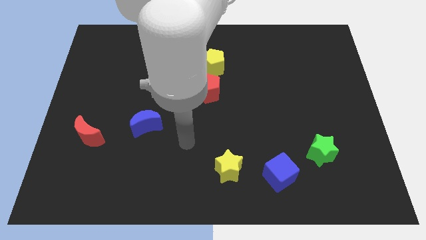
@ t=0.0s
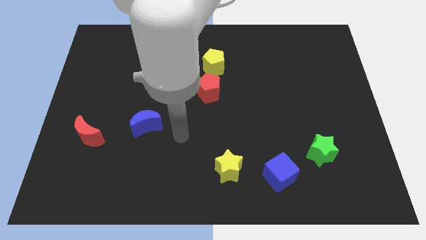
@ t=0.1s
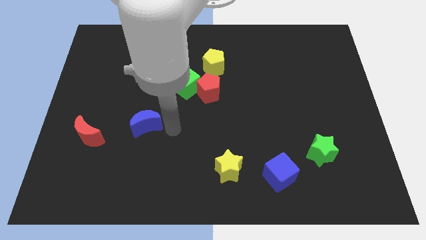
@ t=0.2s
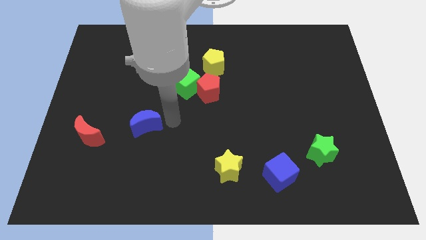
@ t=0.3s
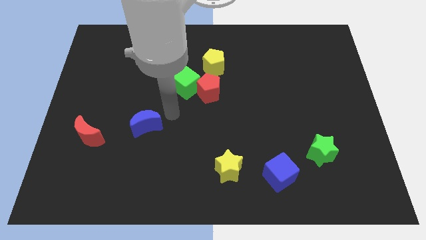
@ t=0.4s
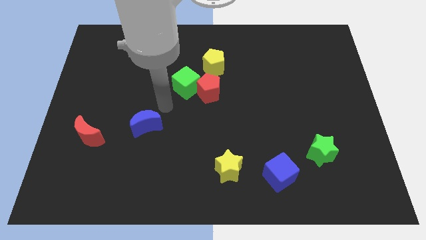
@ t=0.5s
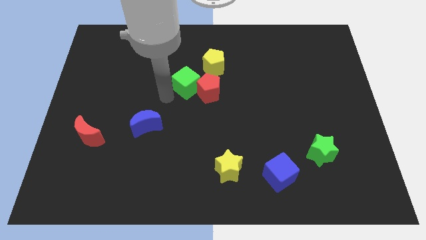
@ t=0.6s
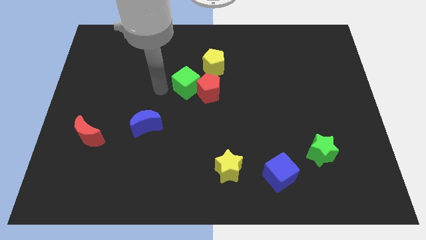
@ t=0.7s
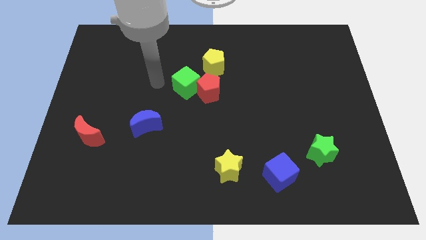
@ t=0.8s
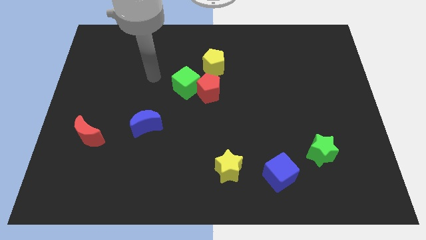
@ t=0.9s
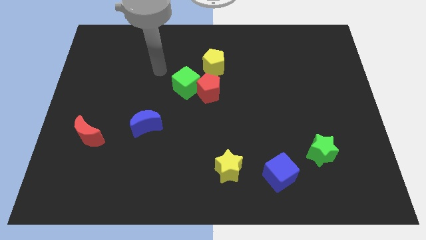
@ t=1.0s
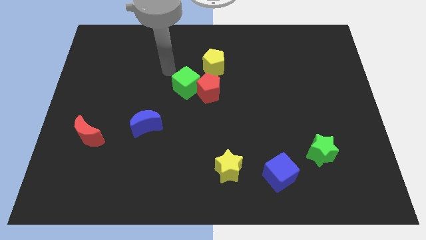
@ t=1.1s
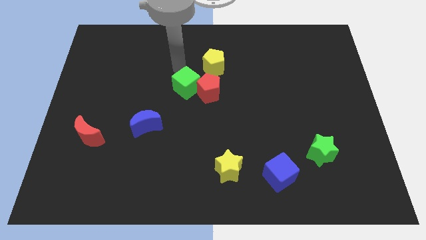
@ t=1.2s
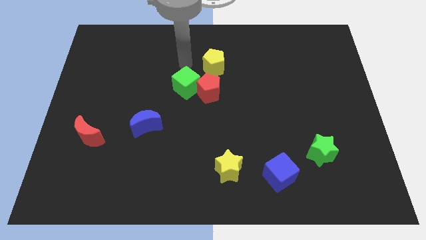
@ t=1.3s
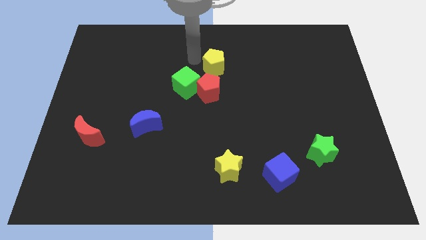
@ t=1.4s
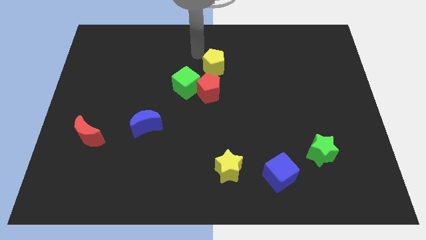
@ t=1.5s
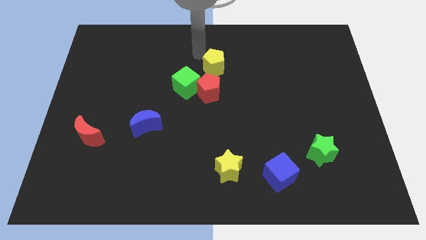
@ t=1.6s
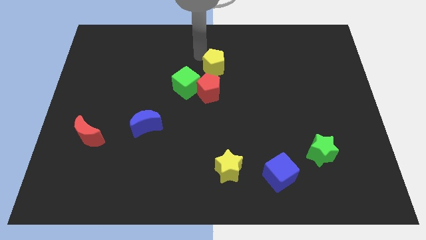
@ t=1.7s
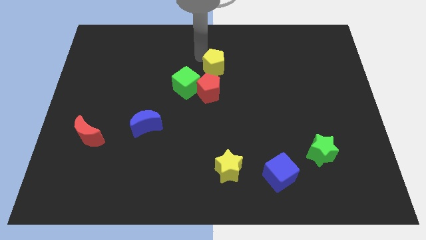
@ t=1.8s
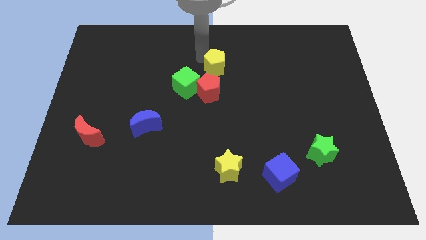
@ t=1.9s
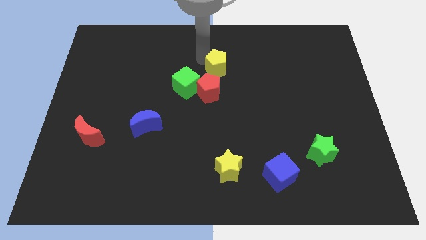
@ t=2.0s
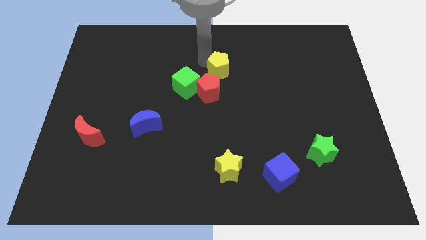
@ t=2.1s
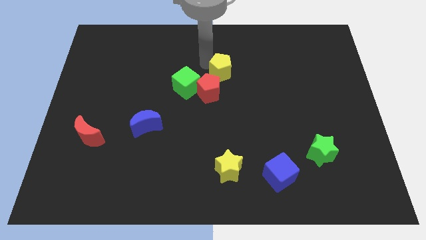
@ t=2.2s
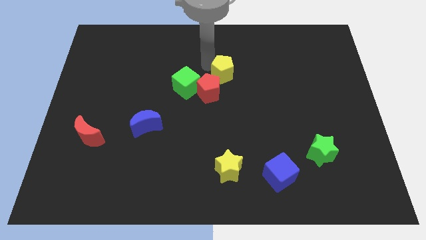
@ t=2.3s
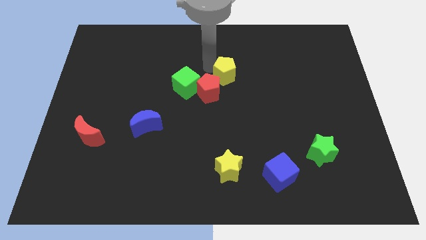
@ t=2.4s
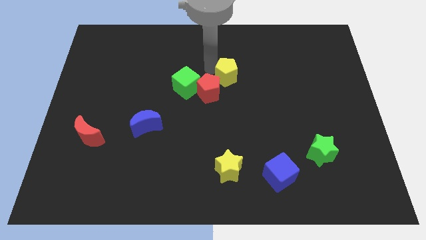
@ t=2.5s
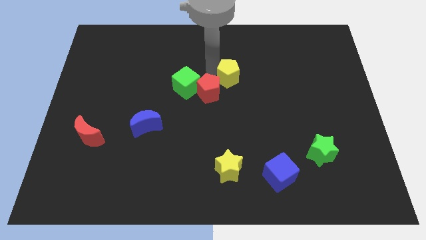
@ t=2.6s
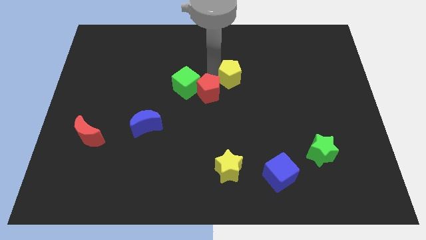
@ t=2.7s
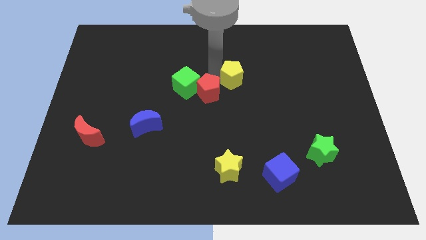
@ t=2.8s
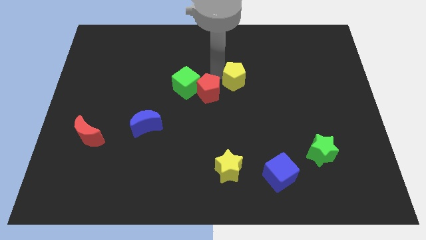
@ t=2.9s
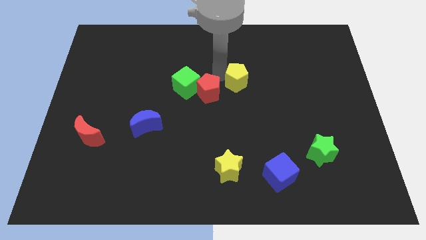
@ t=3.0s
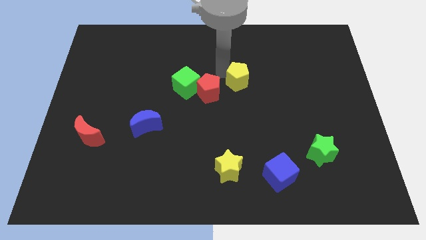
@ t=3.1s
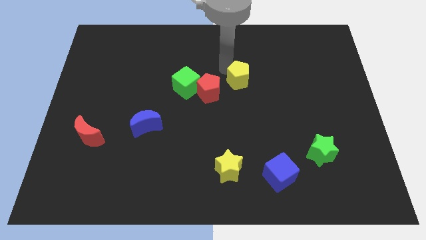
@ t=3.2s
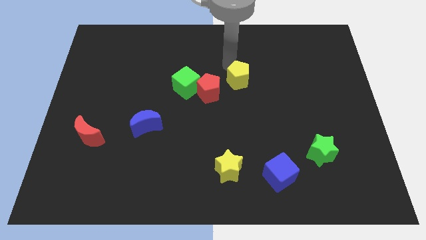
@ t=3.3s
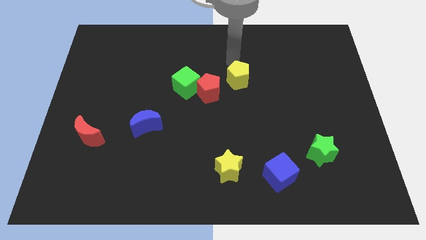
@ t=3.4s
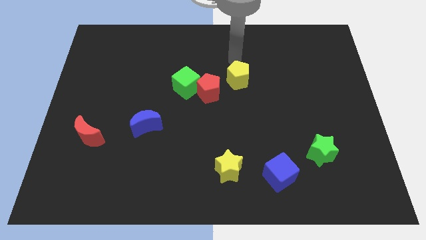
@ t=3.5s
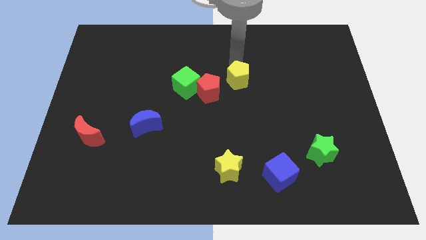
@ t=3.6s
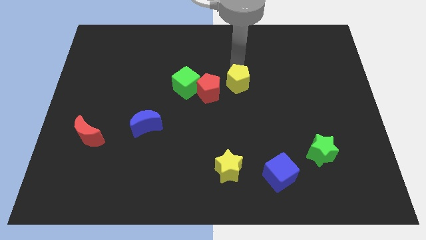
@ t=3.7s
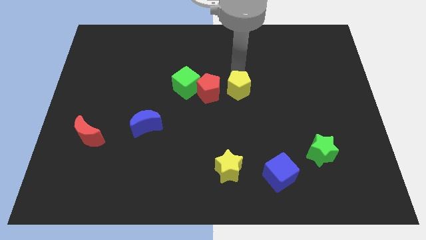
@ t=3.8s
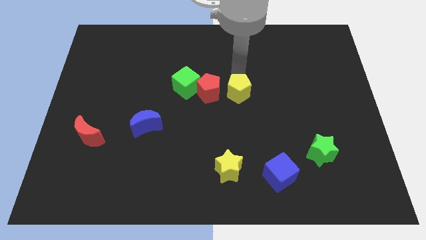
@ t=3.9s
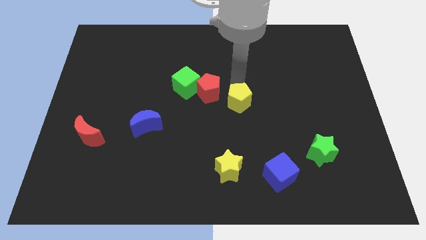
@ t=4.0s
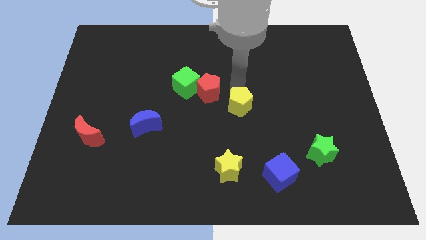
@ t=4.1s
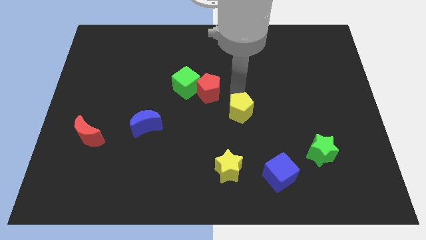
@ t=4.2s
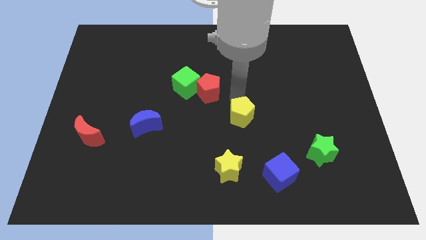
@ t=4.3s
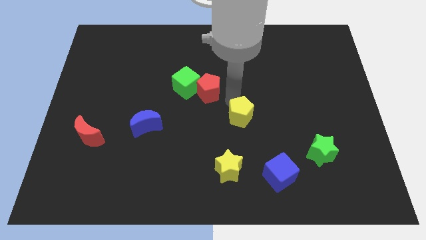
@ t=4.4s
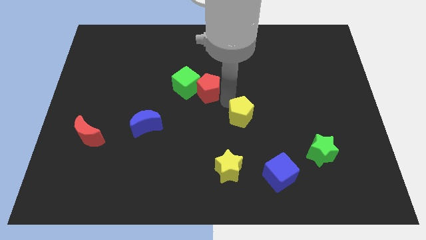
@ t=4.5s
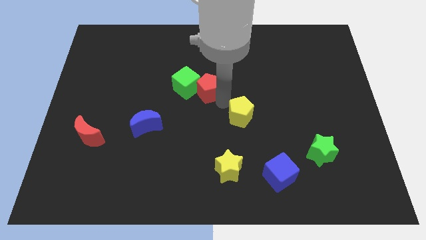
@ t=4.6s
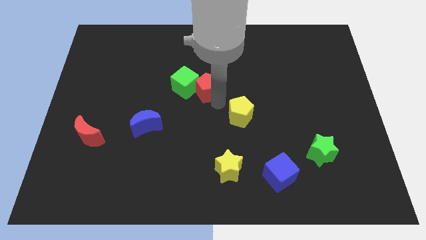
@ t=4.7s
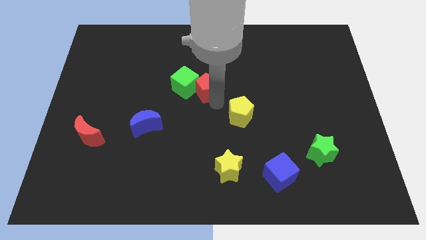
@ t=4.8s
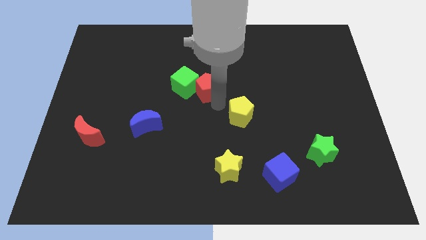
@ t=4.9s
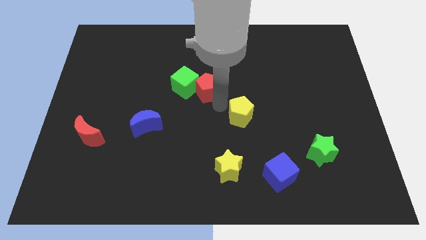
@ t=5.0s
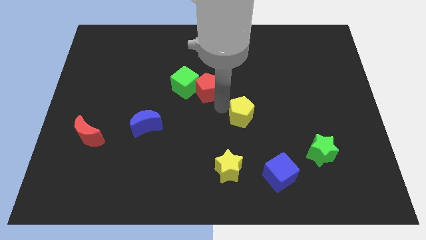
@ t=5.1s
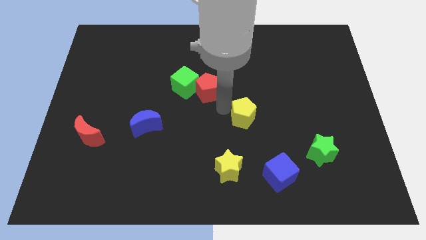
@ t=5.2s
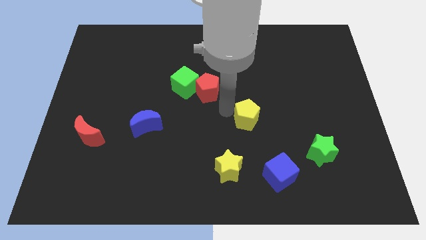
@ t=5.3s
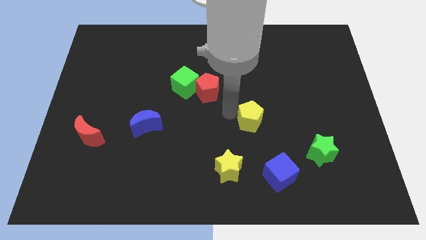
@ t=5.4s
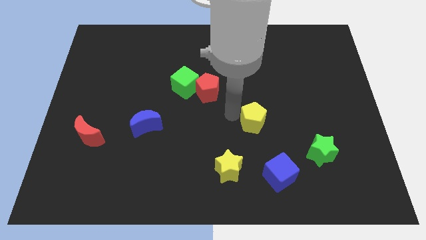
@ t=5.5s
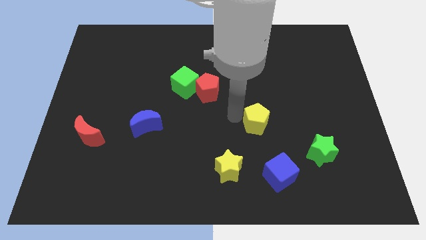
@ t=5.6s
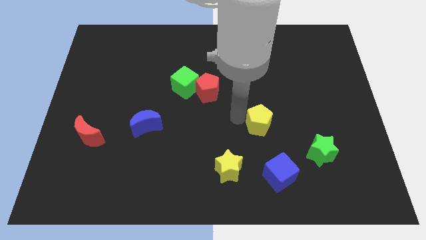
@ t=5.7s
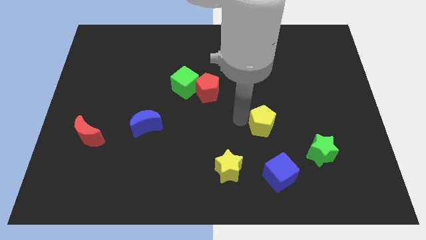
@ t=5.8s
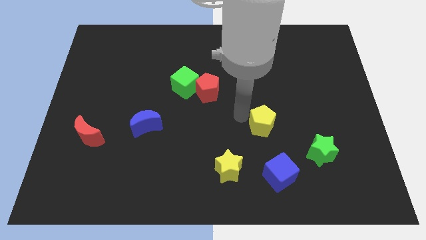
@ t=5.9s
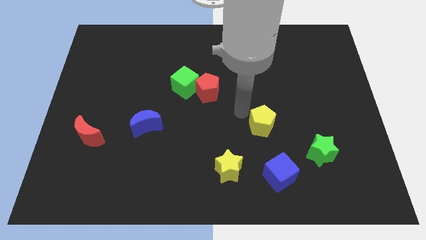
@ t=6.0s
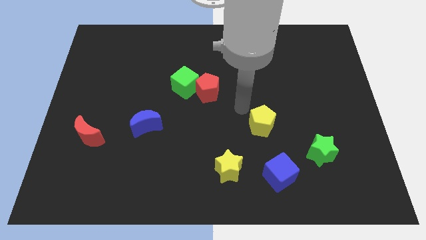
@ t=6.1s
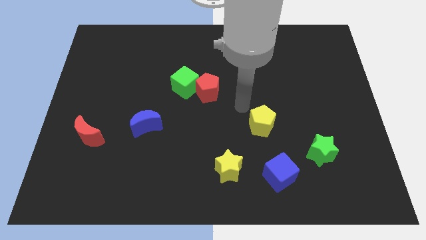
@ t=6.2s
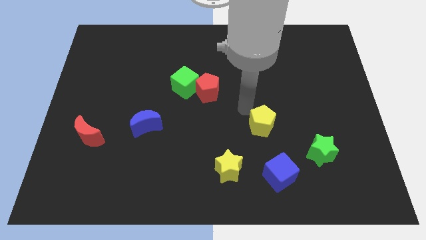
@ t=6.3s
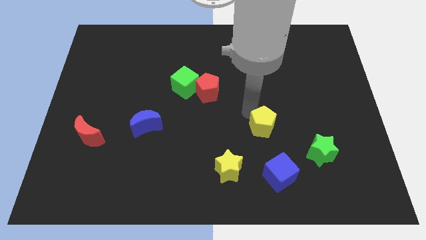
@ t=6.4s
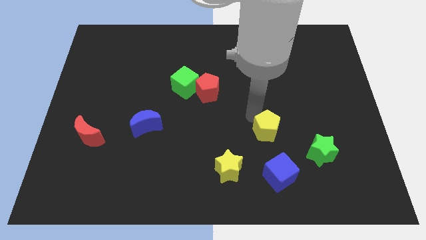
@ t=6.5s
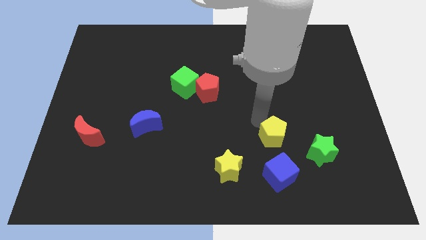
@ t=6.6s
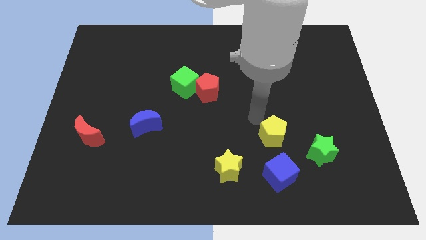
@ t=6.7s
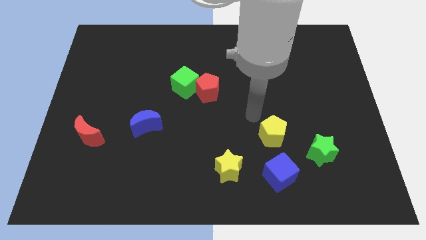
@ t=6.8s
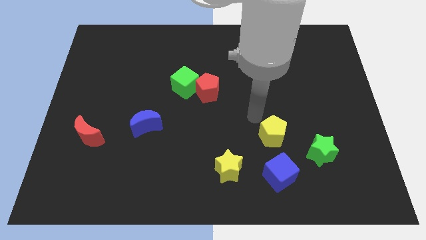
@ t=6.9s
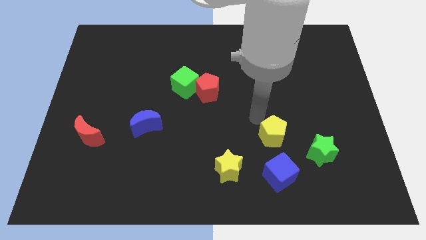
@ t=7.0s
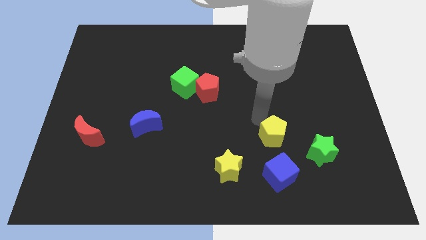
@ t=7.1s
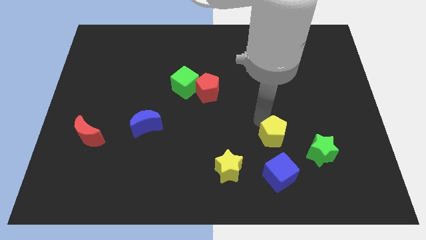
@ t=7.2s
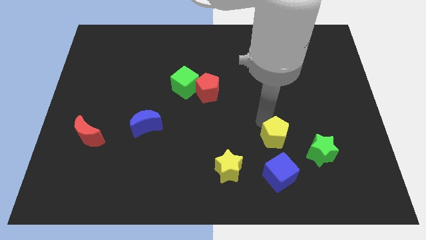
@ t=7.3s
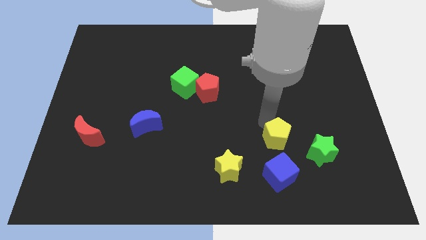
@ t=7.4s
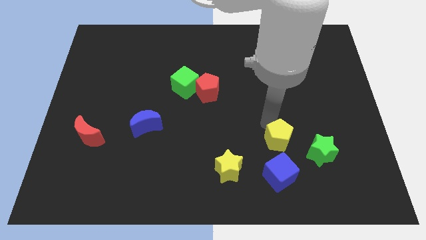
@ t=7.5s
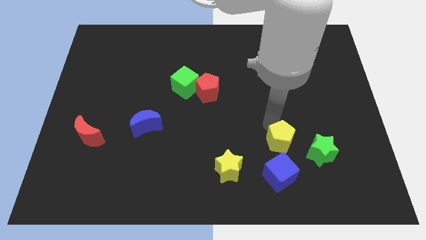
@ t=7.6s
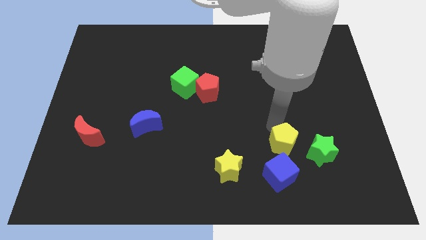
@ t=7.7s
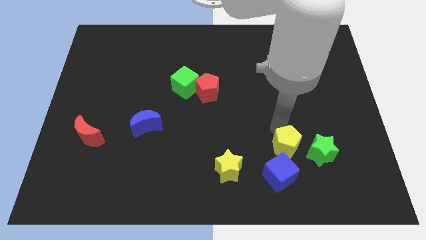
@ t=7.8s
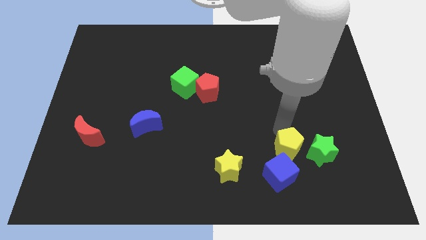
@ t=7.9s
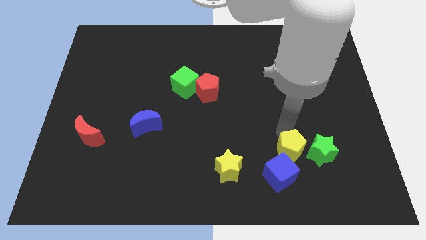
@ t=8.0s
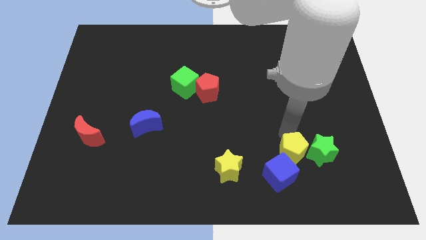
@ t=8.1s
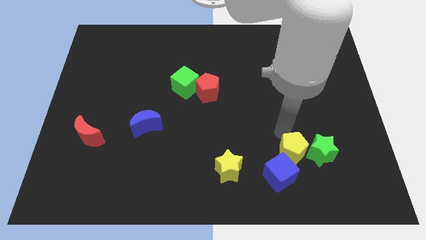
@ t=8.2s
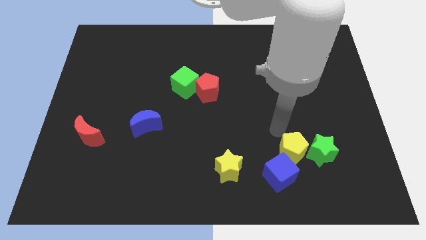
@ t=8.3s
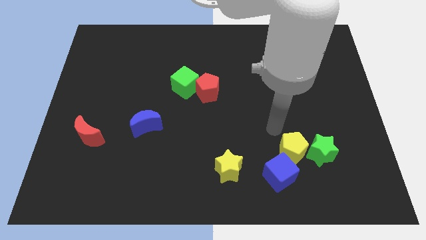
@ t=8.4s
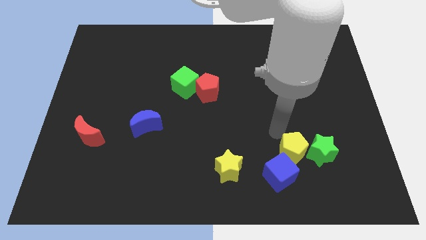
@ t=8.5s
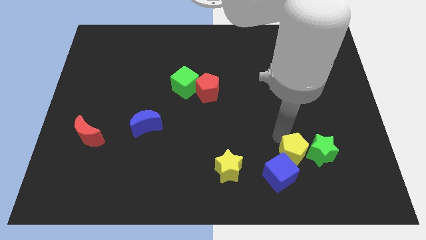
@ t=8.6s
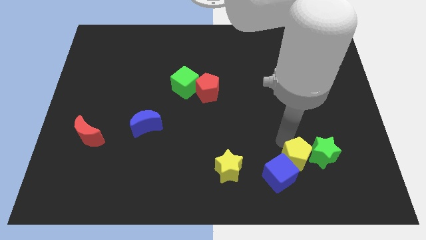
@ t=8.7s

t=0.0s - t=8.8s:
push the yellow pentagon right of the blue cube
